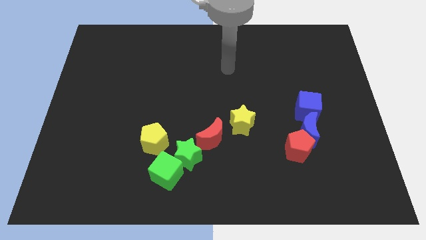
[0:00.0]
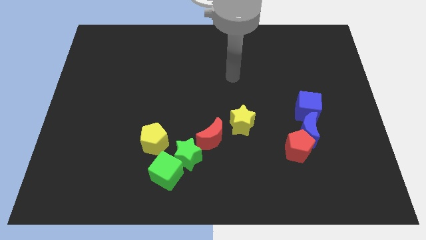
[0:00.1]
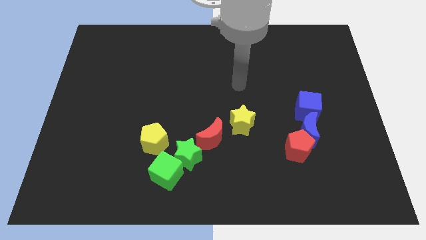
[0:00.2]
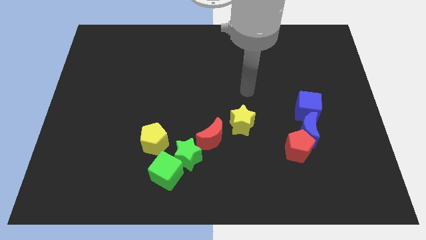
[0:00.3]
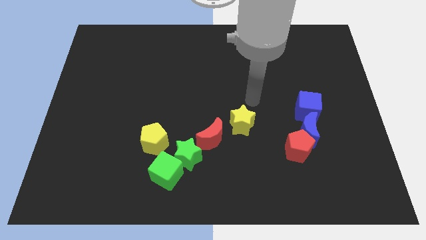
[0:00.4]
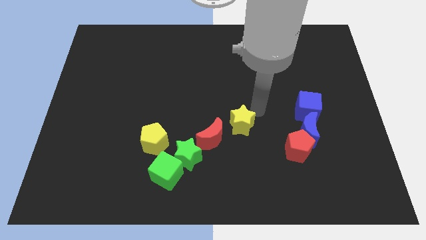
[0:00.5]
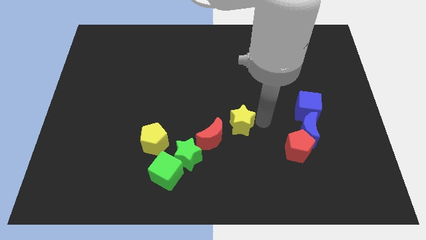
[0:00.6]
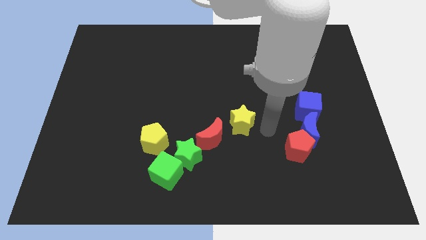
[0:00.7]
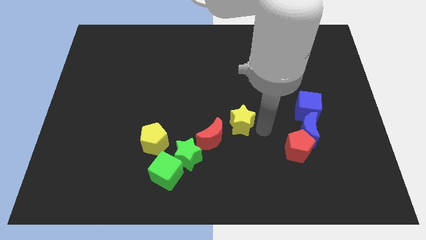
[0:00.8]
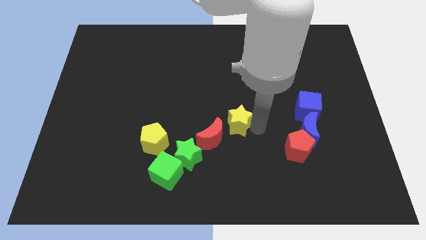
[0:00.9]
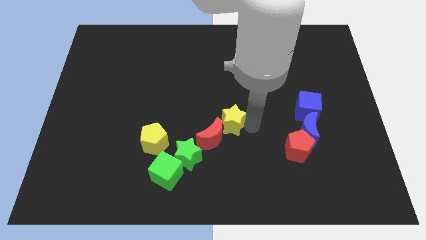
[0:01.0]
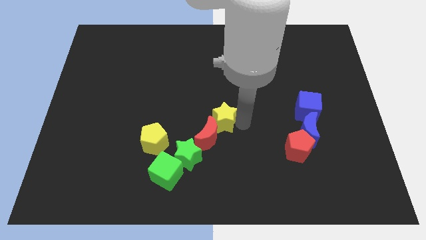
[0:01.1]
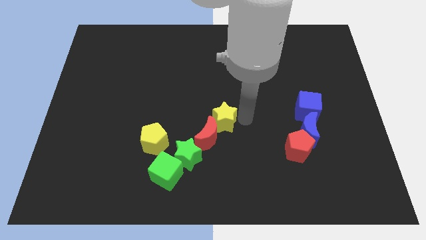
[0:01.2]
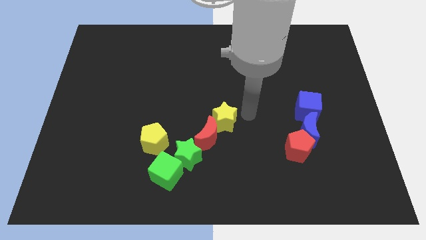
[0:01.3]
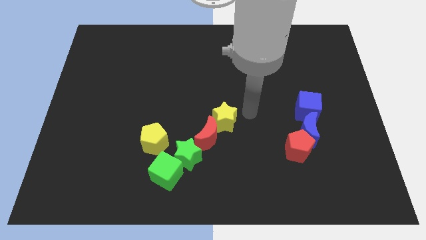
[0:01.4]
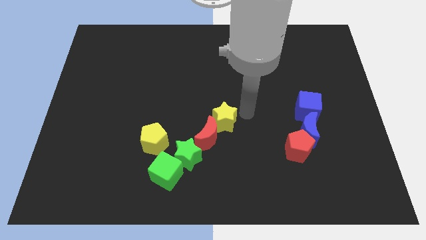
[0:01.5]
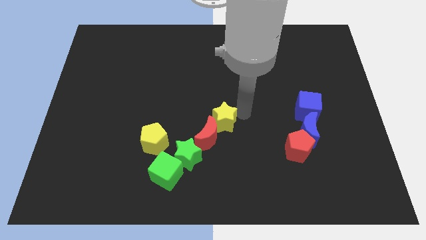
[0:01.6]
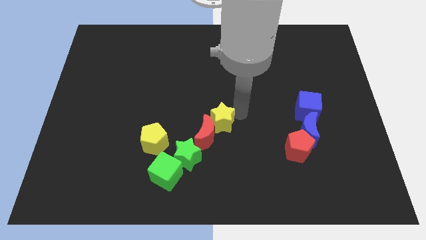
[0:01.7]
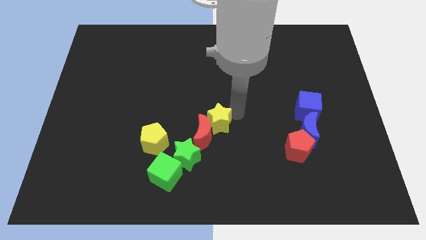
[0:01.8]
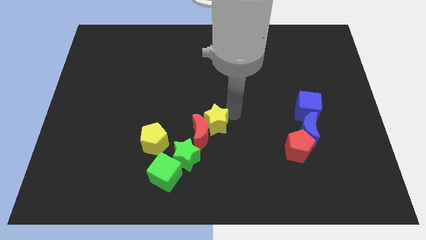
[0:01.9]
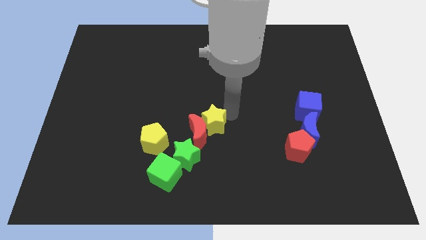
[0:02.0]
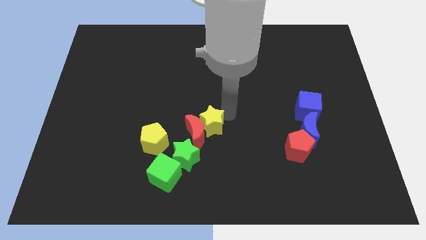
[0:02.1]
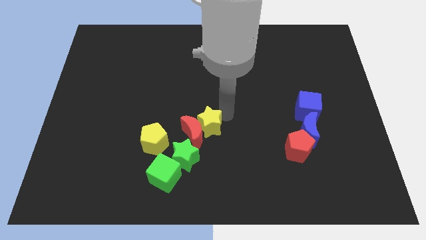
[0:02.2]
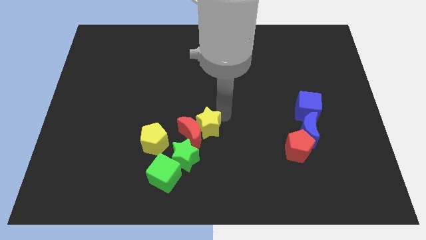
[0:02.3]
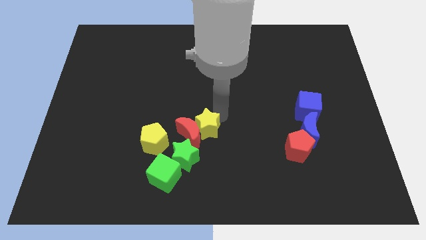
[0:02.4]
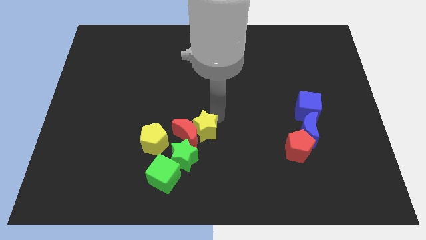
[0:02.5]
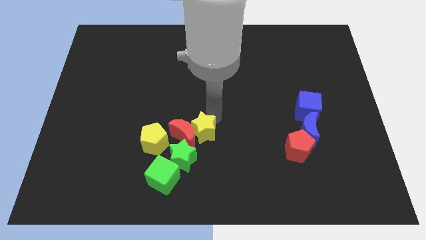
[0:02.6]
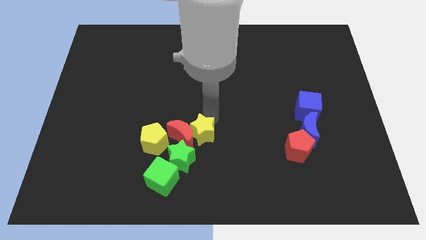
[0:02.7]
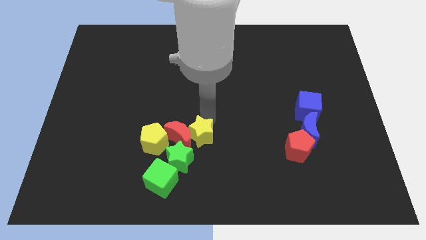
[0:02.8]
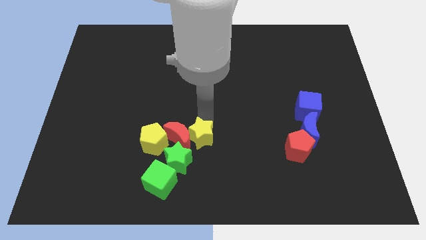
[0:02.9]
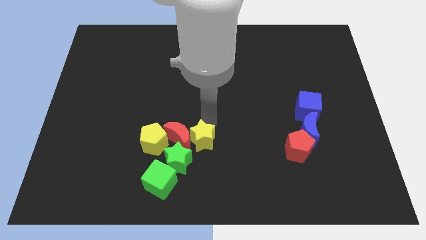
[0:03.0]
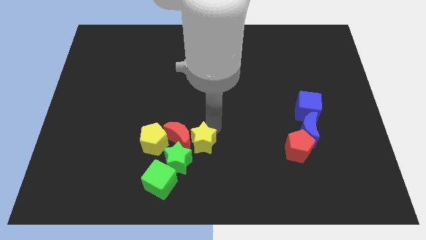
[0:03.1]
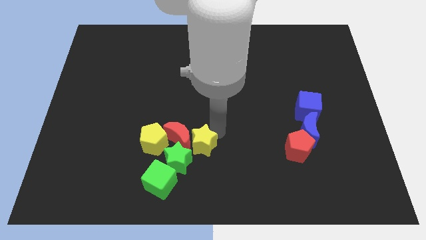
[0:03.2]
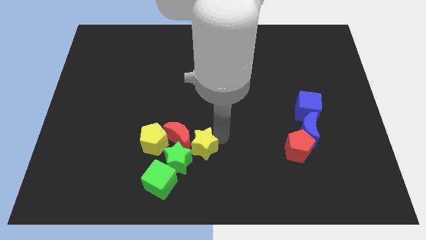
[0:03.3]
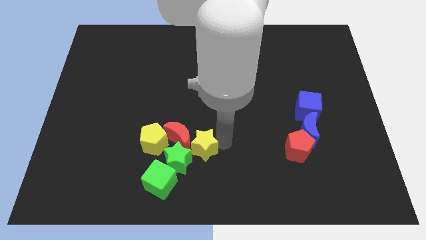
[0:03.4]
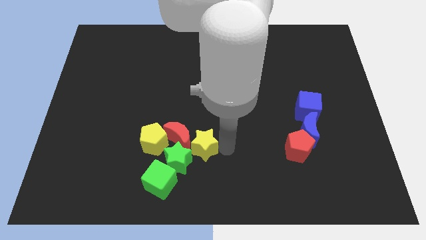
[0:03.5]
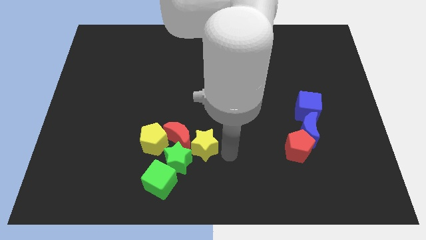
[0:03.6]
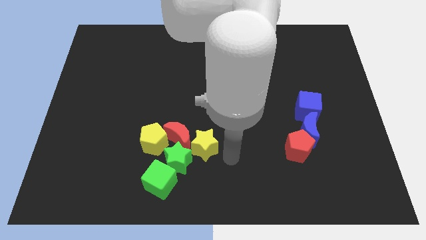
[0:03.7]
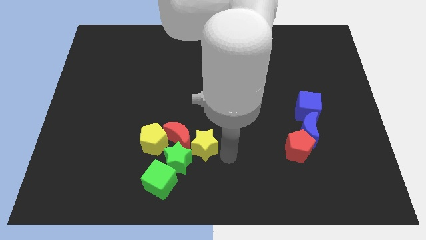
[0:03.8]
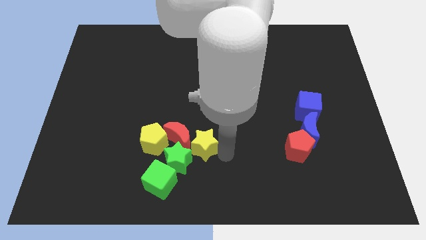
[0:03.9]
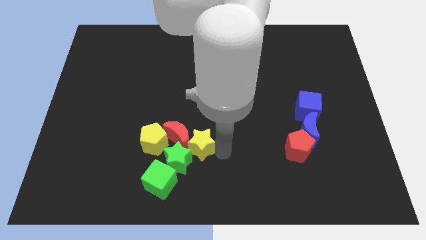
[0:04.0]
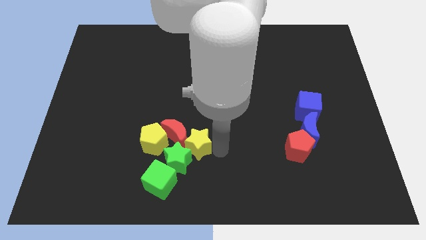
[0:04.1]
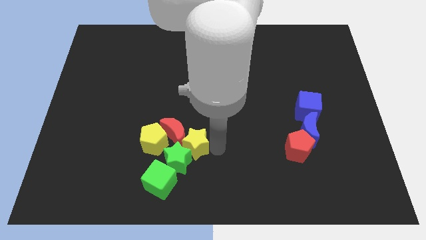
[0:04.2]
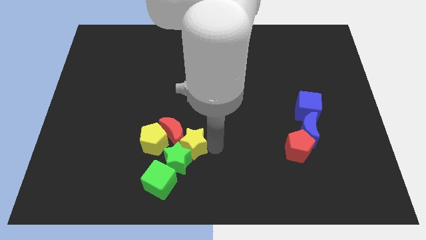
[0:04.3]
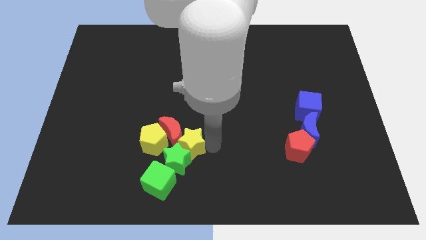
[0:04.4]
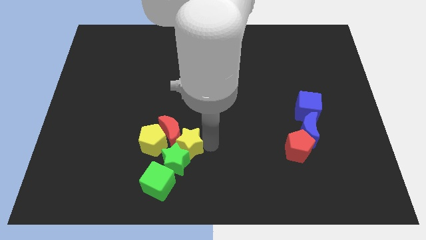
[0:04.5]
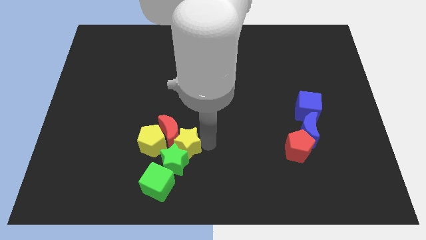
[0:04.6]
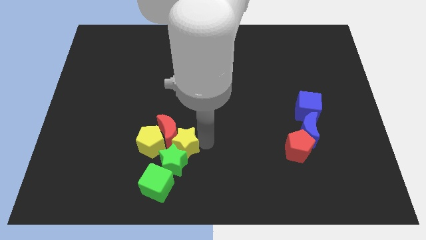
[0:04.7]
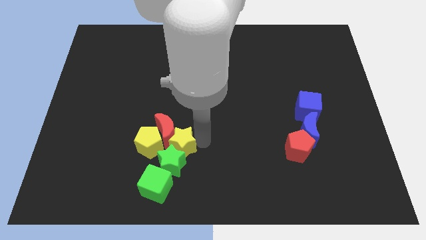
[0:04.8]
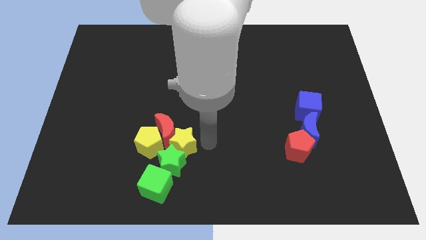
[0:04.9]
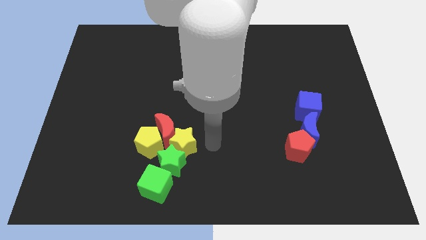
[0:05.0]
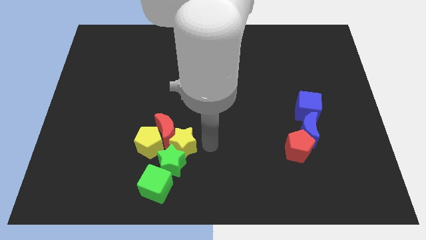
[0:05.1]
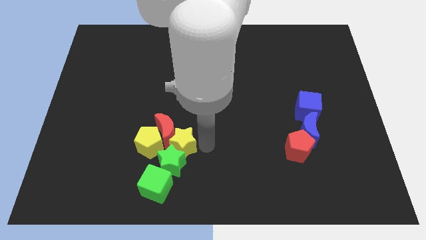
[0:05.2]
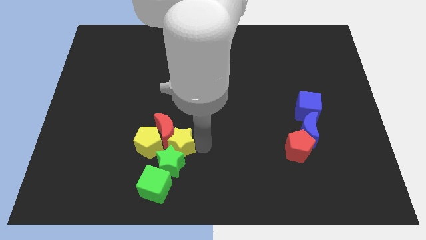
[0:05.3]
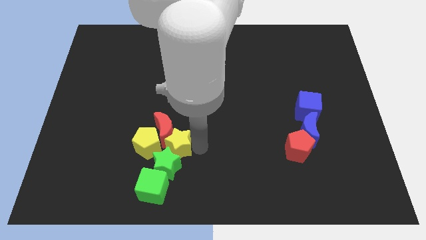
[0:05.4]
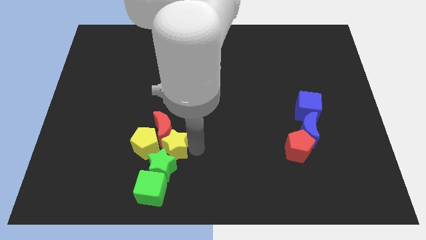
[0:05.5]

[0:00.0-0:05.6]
move the yellow star next to the yellow pentagon

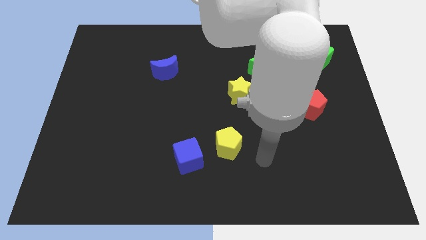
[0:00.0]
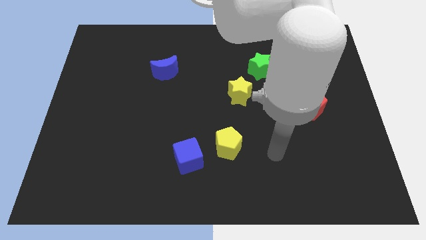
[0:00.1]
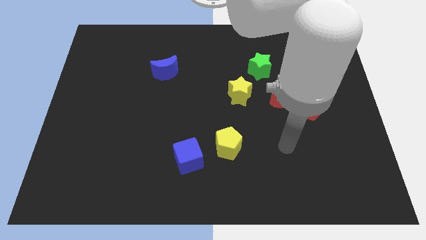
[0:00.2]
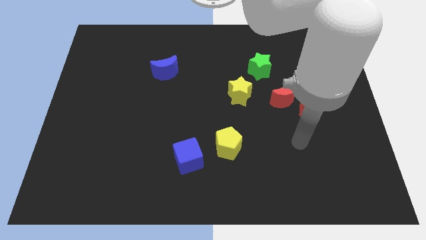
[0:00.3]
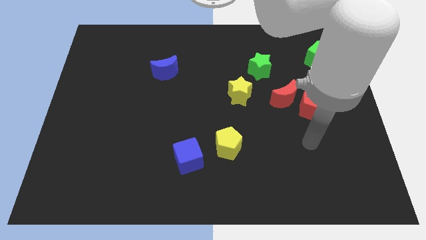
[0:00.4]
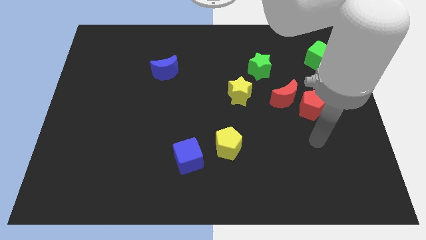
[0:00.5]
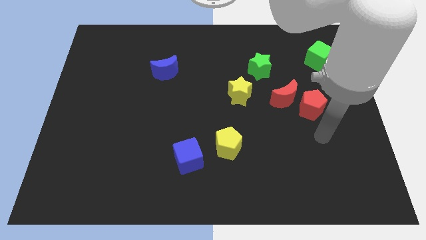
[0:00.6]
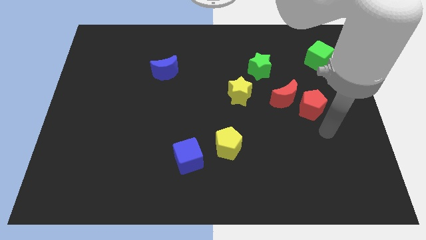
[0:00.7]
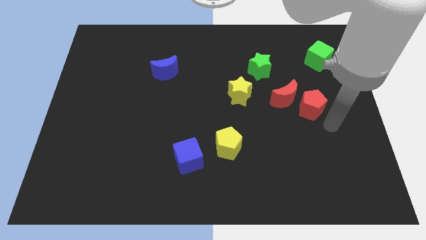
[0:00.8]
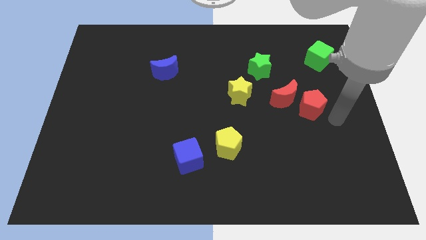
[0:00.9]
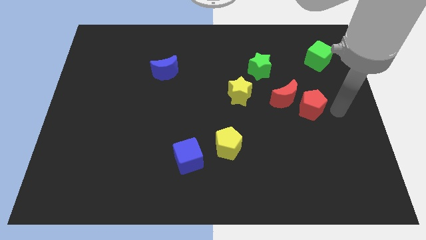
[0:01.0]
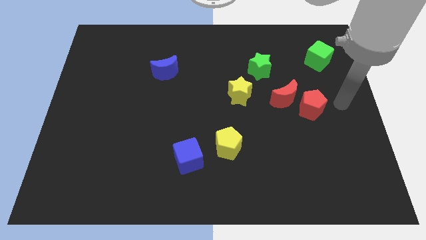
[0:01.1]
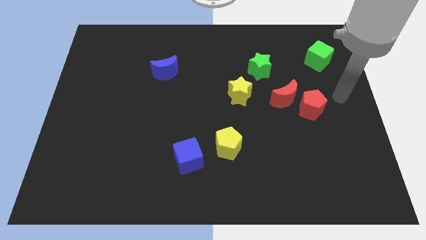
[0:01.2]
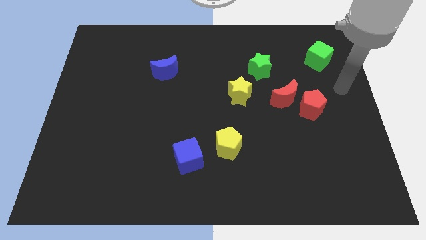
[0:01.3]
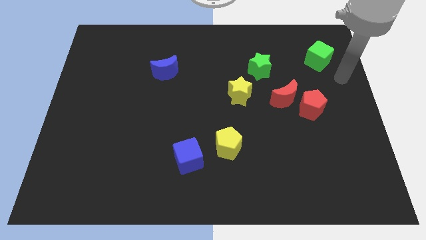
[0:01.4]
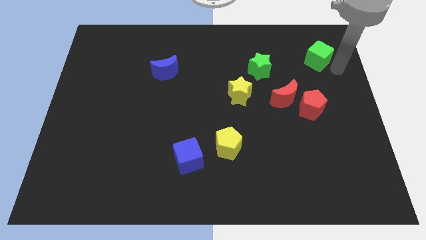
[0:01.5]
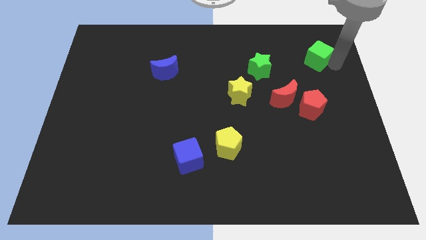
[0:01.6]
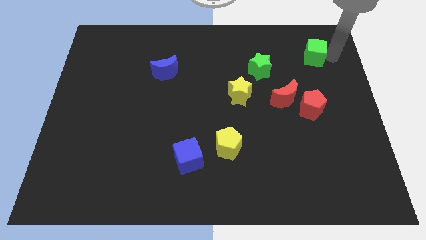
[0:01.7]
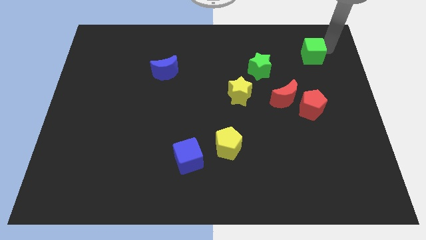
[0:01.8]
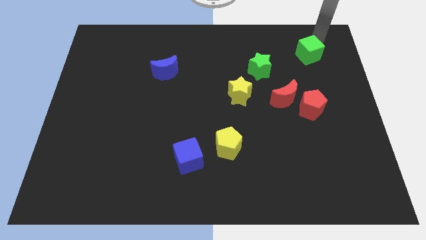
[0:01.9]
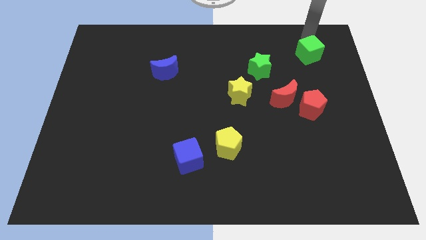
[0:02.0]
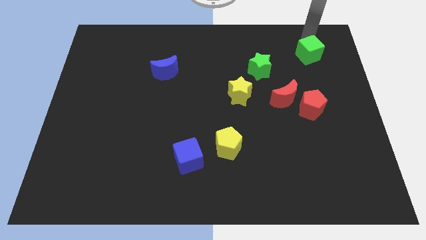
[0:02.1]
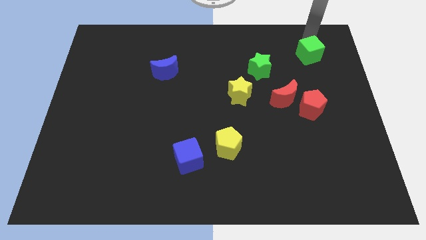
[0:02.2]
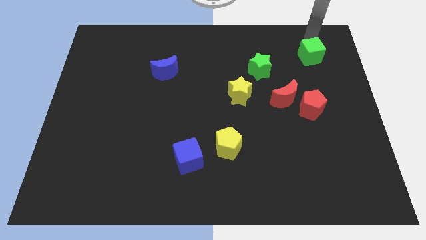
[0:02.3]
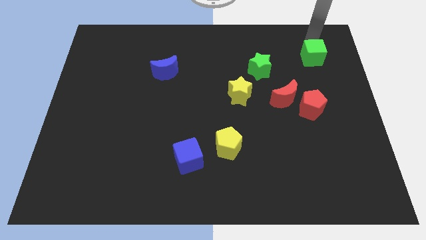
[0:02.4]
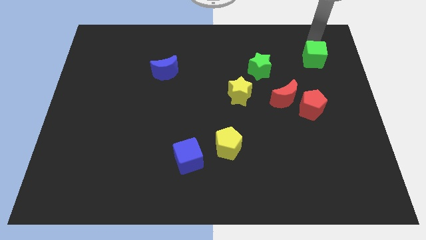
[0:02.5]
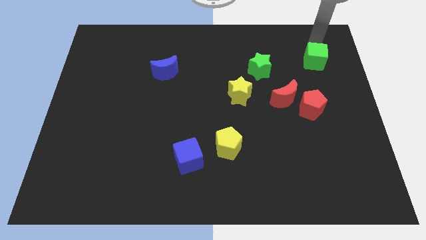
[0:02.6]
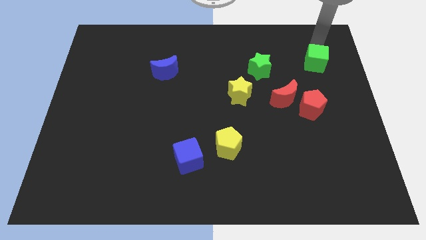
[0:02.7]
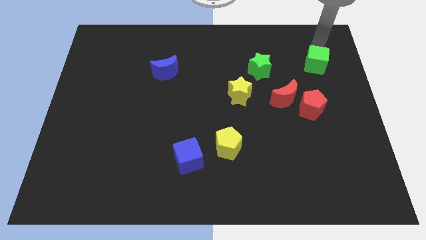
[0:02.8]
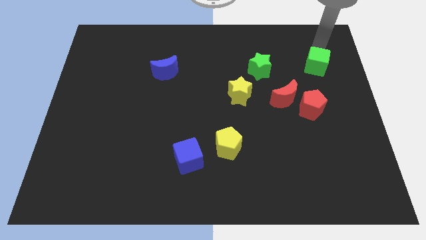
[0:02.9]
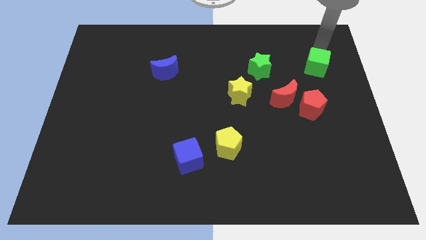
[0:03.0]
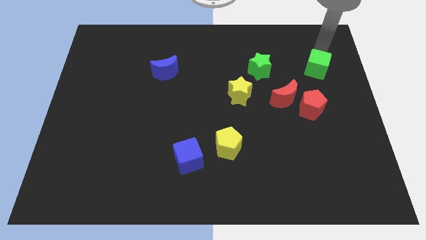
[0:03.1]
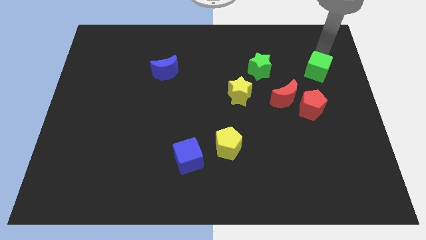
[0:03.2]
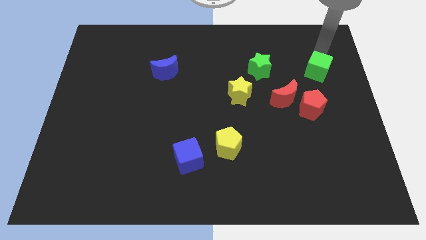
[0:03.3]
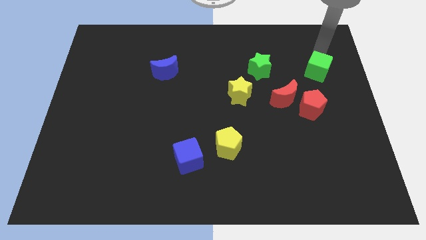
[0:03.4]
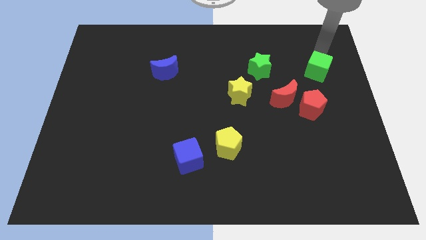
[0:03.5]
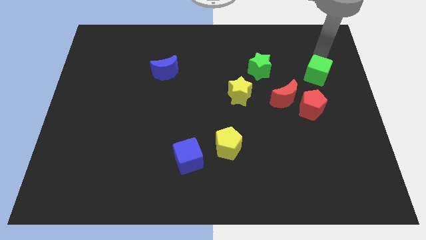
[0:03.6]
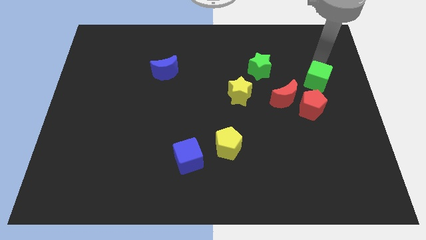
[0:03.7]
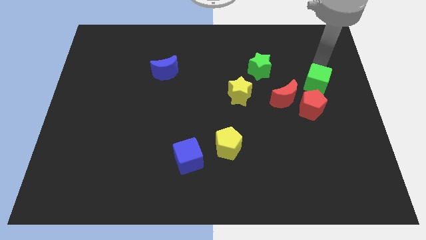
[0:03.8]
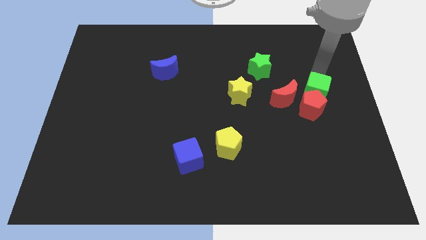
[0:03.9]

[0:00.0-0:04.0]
move the green cube towards the red pentagon
